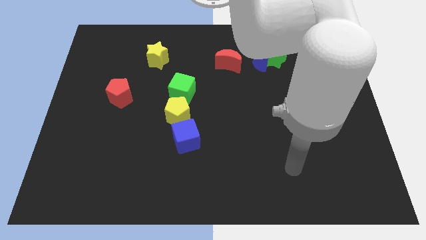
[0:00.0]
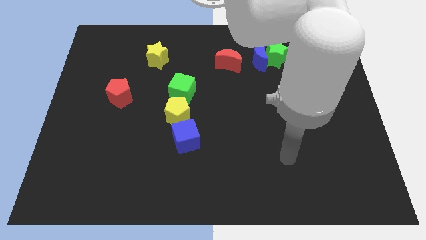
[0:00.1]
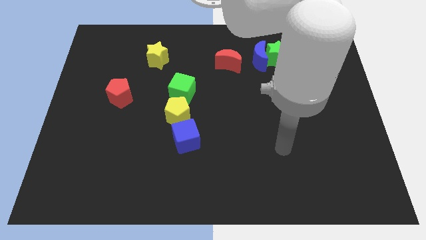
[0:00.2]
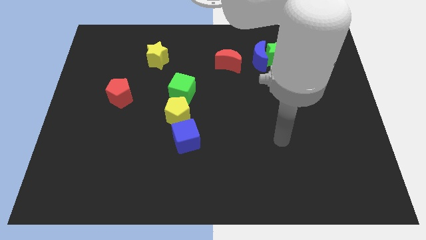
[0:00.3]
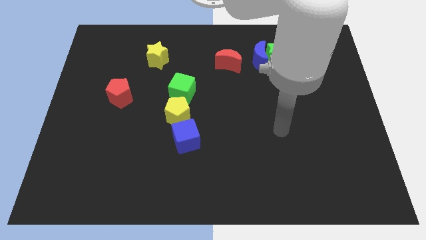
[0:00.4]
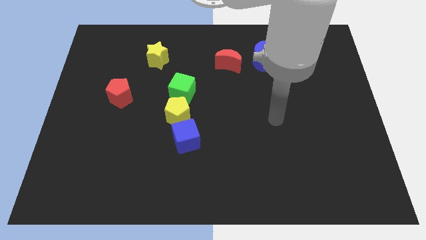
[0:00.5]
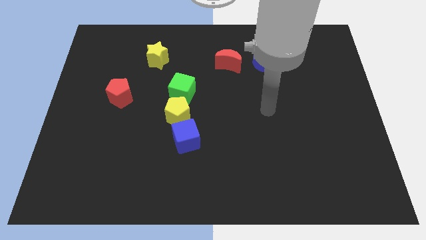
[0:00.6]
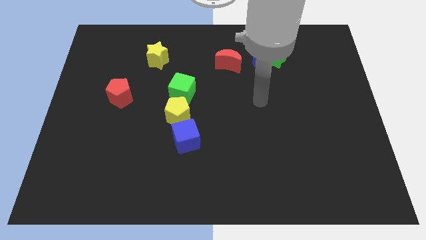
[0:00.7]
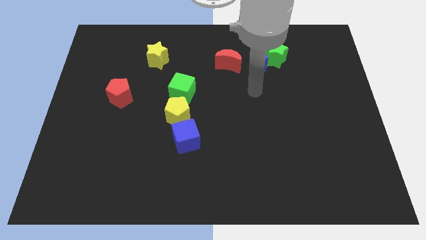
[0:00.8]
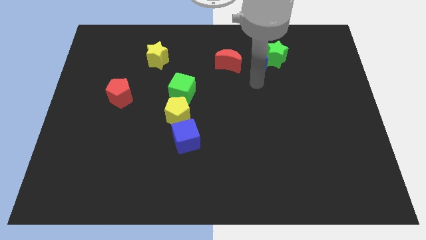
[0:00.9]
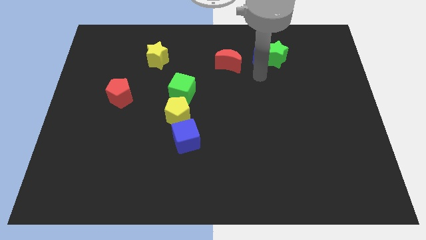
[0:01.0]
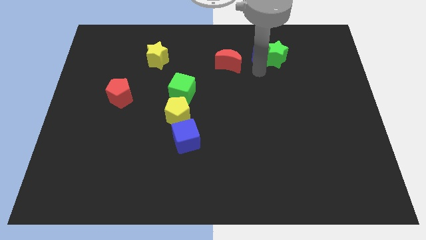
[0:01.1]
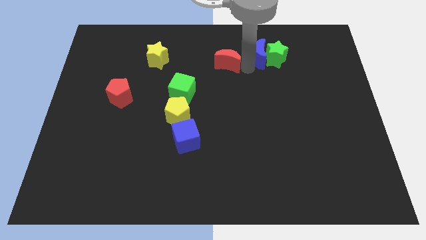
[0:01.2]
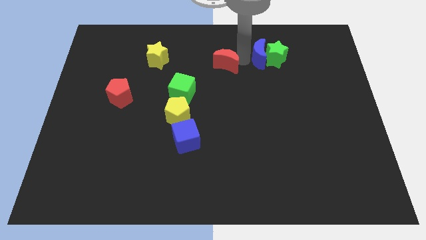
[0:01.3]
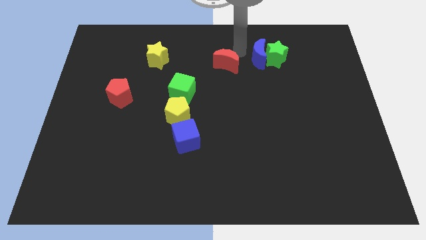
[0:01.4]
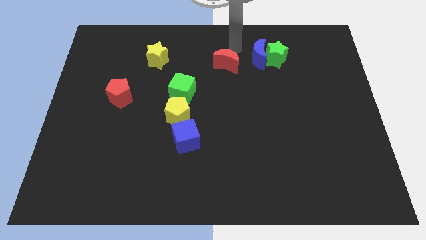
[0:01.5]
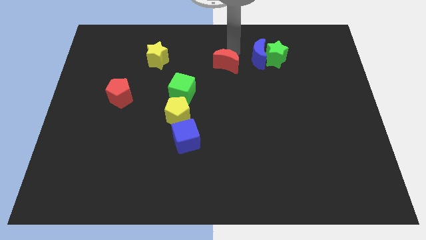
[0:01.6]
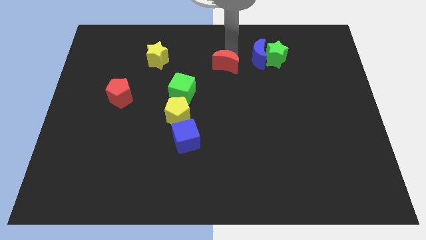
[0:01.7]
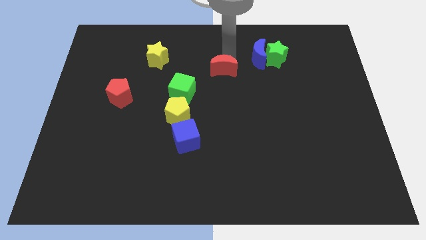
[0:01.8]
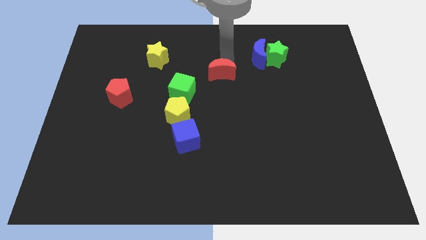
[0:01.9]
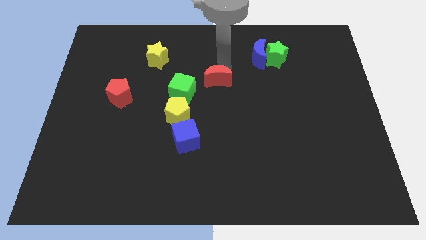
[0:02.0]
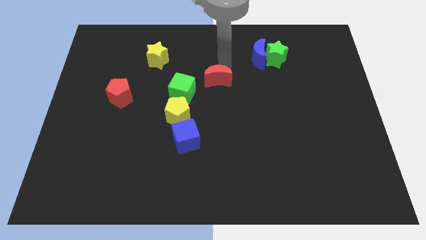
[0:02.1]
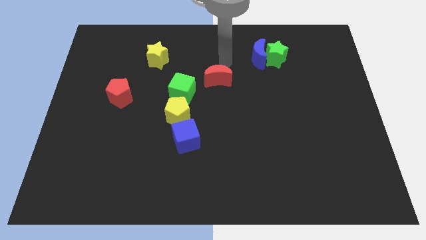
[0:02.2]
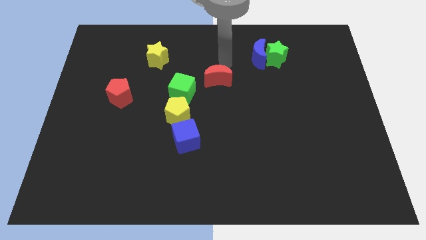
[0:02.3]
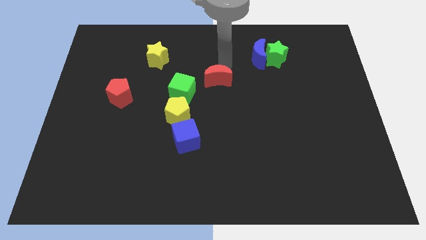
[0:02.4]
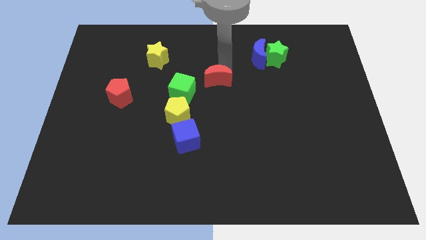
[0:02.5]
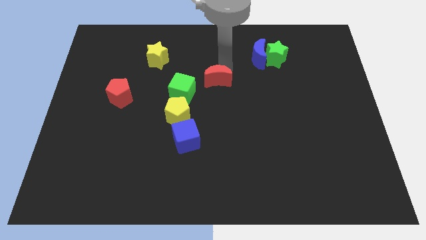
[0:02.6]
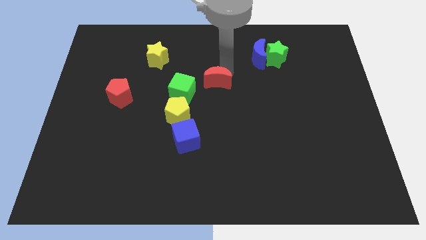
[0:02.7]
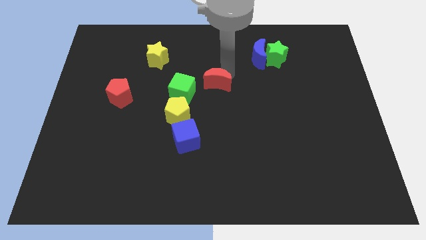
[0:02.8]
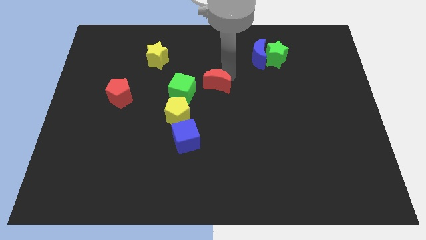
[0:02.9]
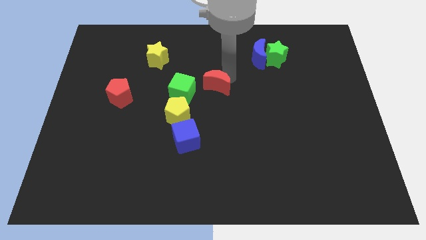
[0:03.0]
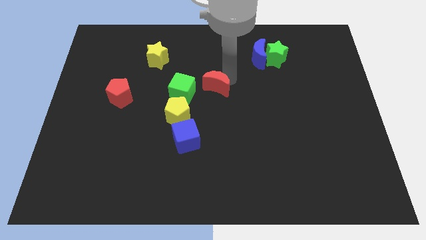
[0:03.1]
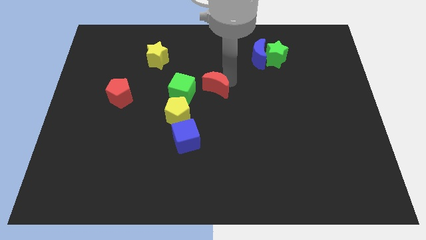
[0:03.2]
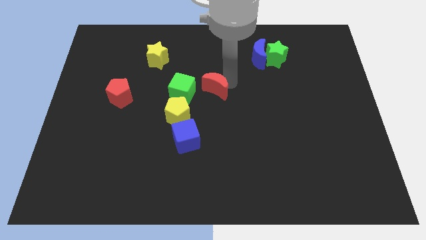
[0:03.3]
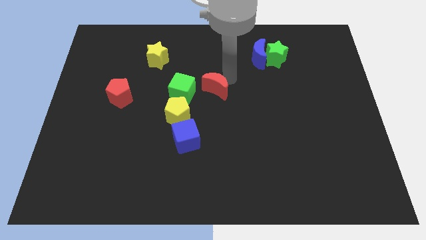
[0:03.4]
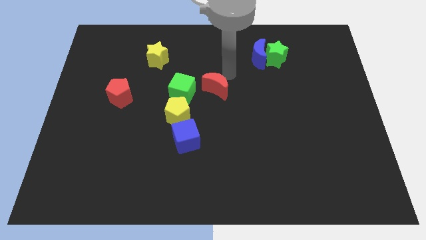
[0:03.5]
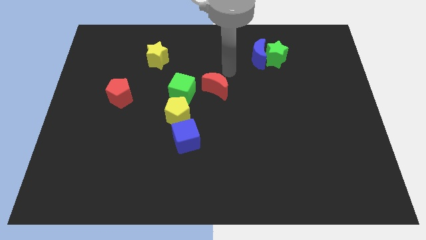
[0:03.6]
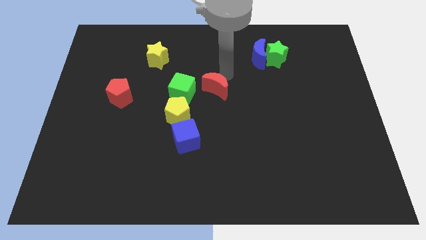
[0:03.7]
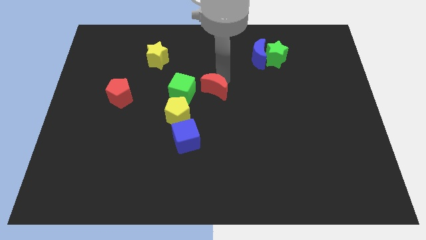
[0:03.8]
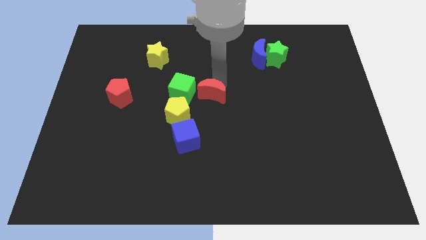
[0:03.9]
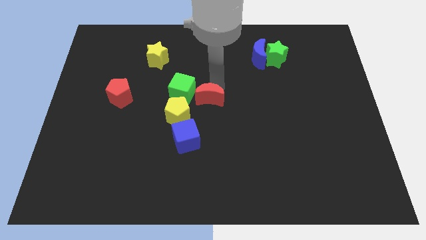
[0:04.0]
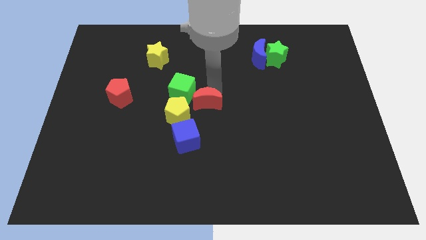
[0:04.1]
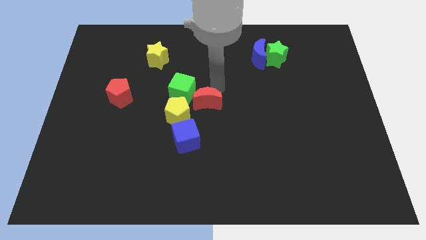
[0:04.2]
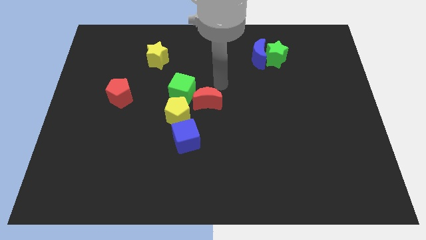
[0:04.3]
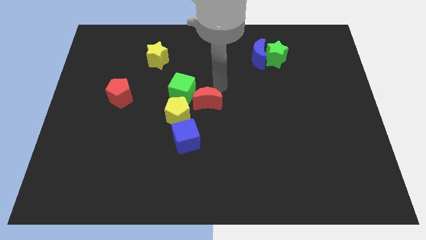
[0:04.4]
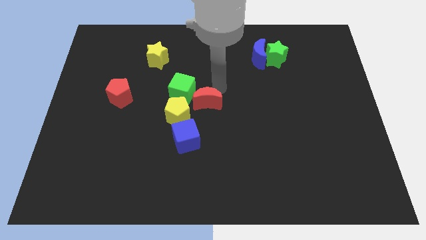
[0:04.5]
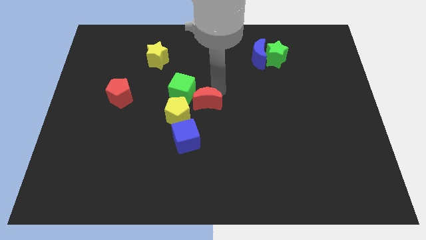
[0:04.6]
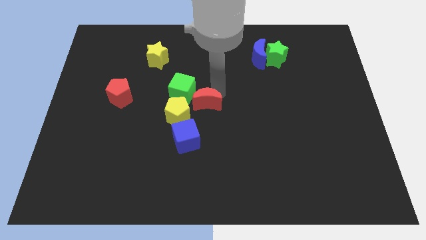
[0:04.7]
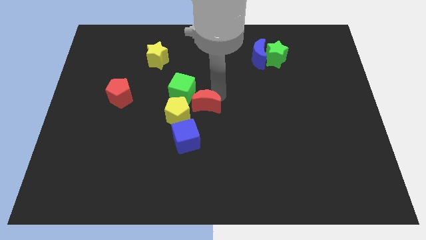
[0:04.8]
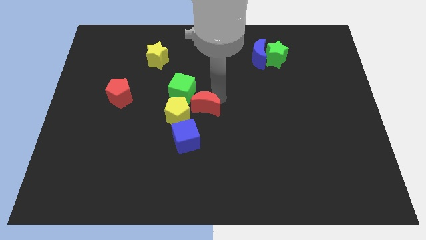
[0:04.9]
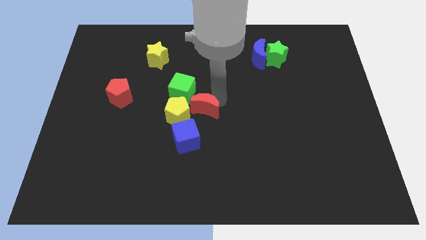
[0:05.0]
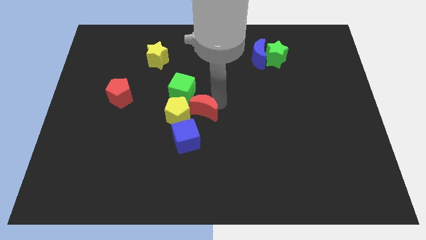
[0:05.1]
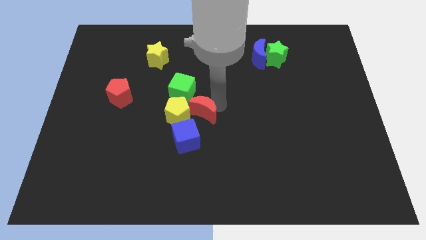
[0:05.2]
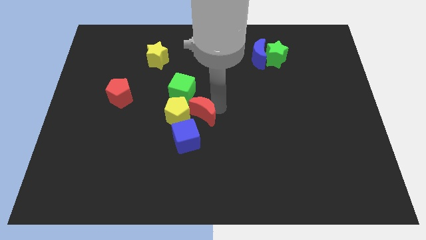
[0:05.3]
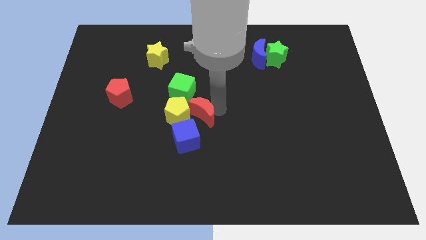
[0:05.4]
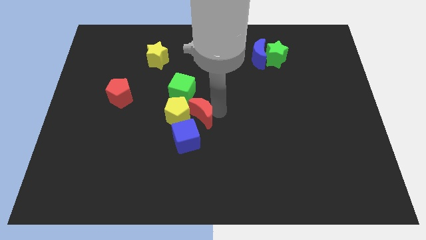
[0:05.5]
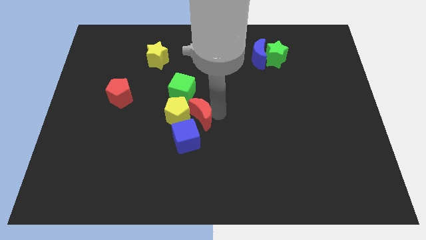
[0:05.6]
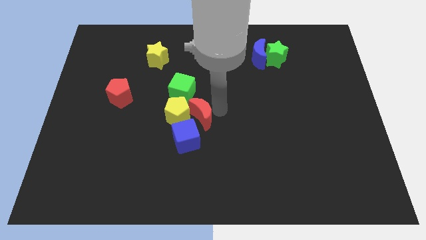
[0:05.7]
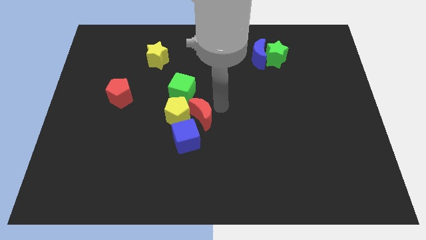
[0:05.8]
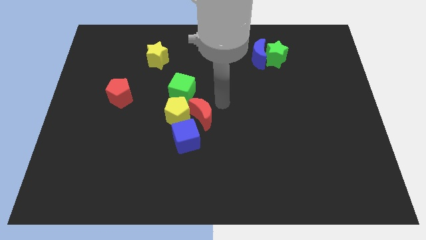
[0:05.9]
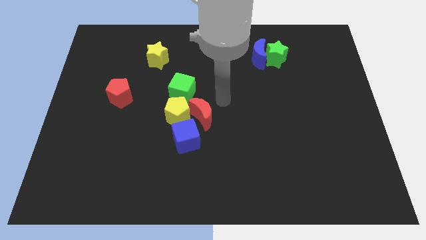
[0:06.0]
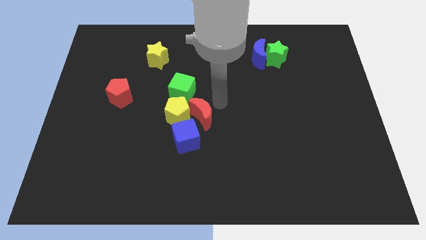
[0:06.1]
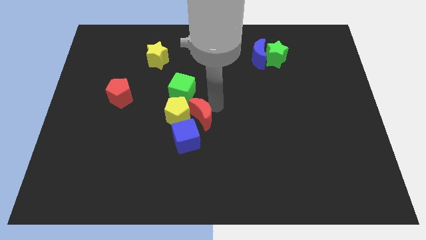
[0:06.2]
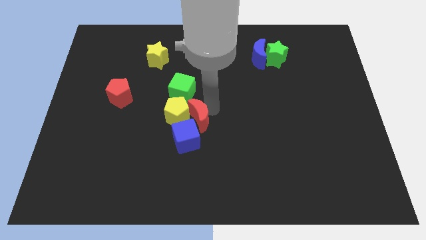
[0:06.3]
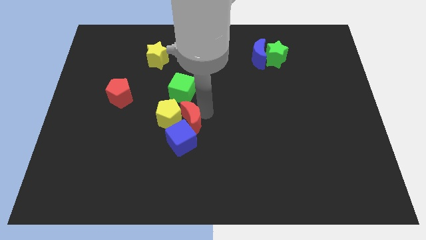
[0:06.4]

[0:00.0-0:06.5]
slide the red moon close to the blue cube

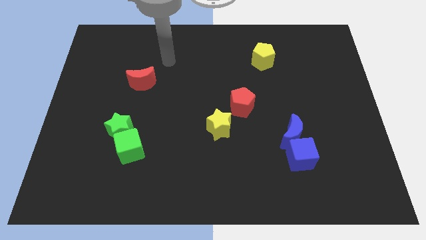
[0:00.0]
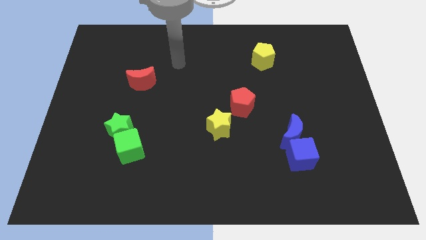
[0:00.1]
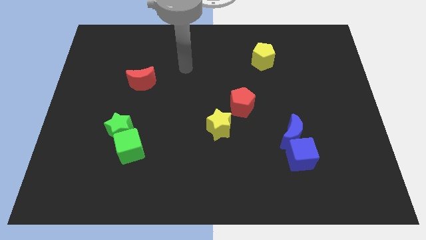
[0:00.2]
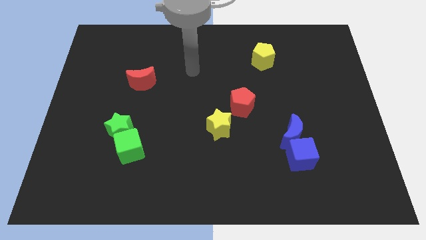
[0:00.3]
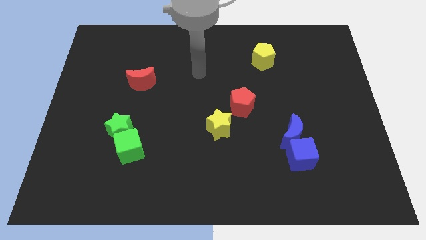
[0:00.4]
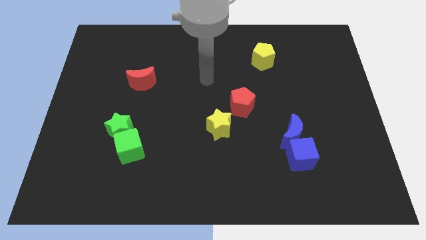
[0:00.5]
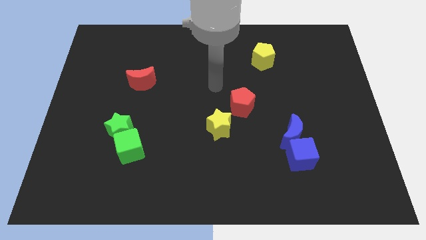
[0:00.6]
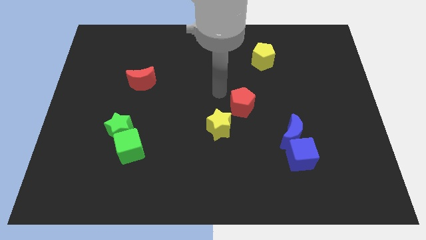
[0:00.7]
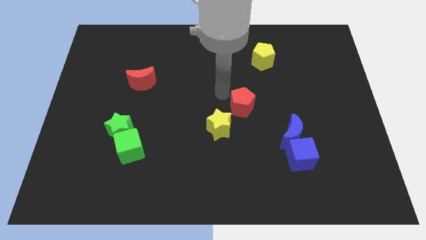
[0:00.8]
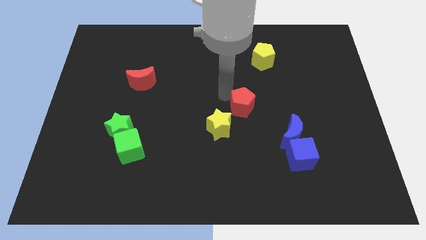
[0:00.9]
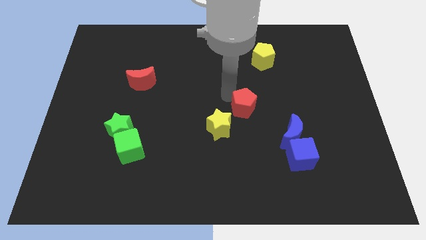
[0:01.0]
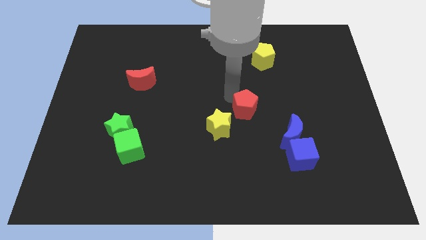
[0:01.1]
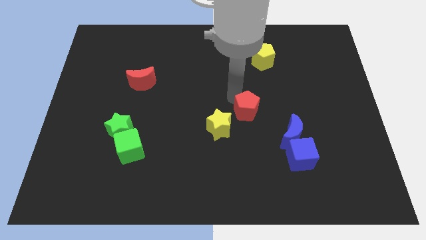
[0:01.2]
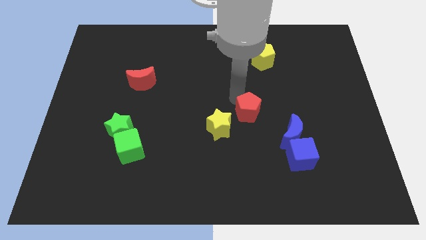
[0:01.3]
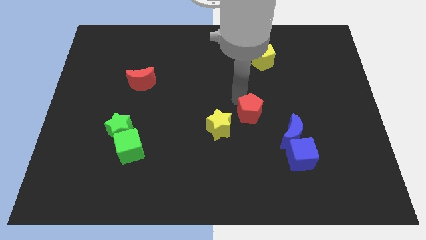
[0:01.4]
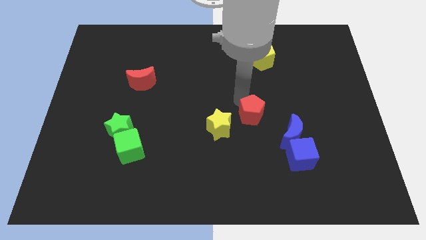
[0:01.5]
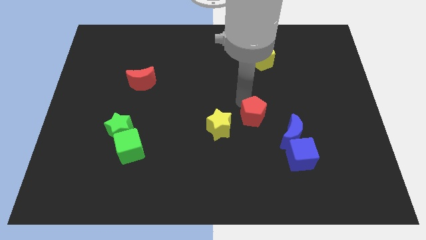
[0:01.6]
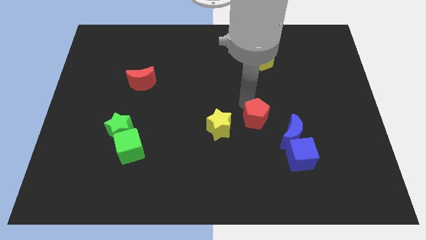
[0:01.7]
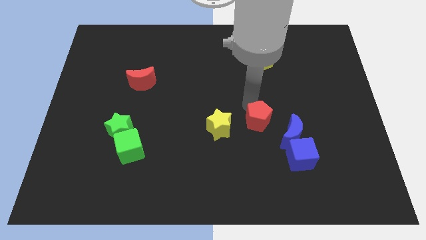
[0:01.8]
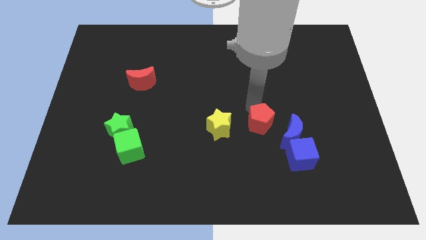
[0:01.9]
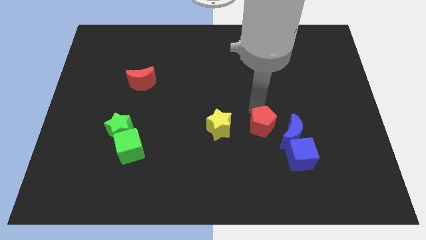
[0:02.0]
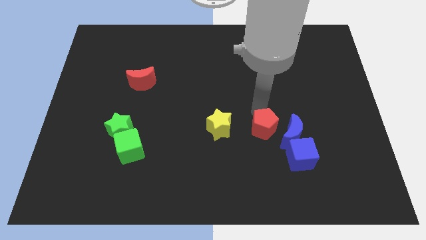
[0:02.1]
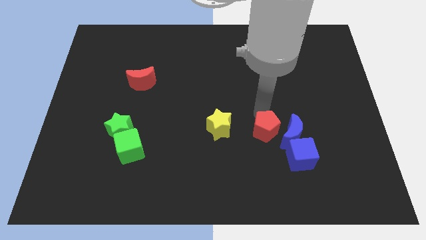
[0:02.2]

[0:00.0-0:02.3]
put the red pentagon close to the blue moon
